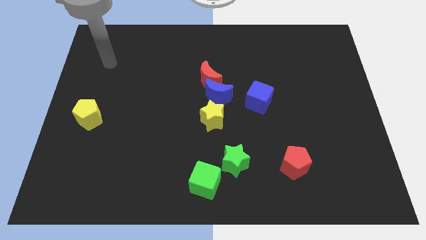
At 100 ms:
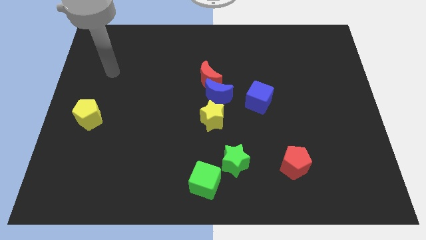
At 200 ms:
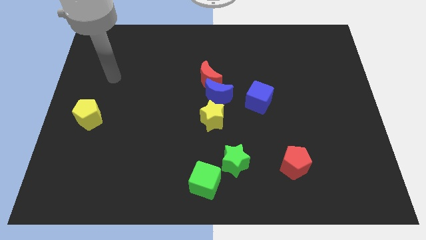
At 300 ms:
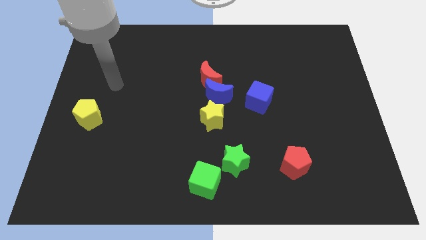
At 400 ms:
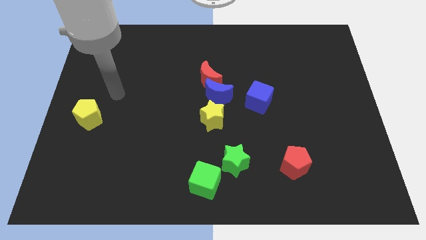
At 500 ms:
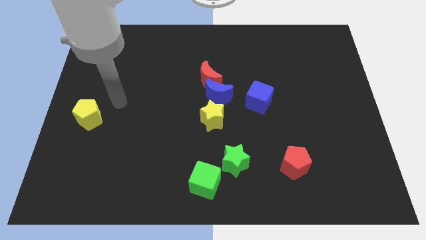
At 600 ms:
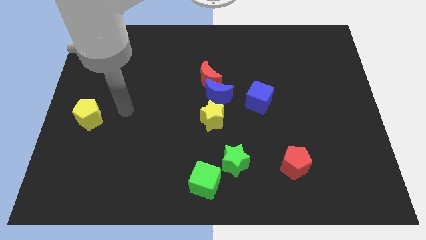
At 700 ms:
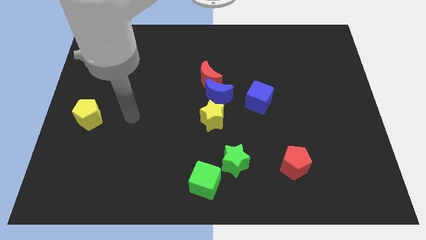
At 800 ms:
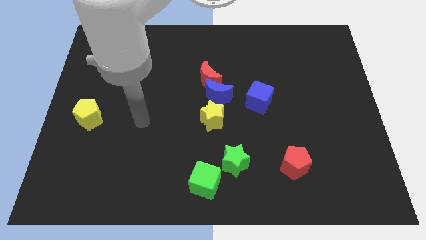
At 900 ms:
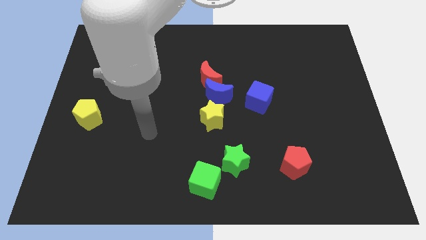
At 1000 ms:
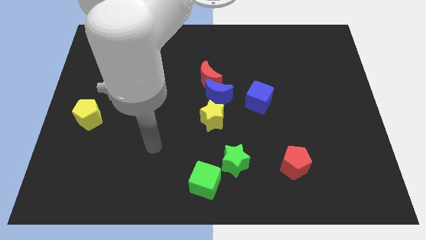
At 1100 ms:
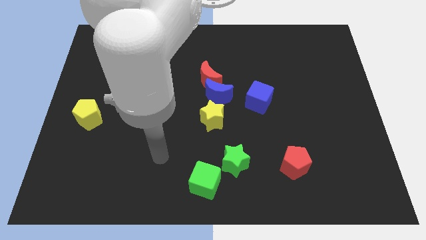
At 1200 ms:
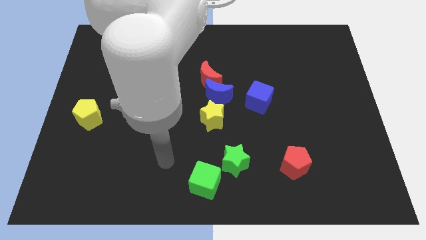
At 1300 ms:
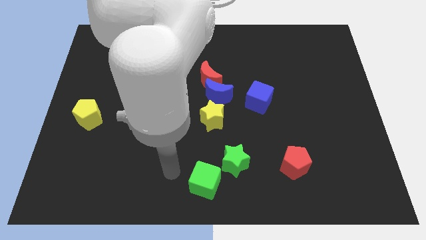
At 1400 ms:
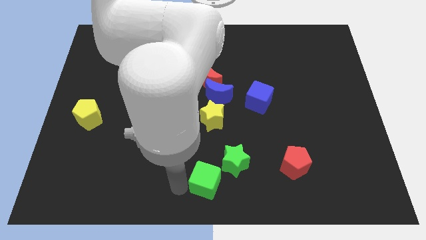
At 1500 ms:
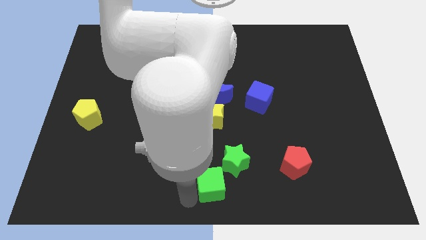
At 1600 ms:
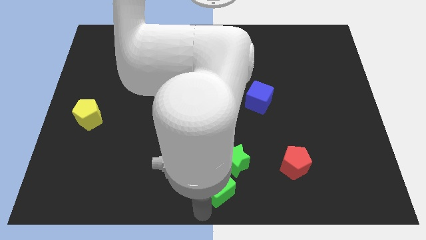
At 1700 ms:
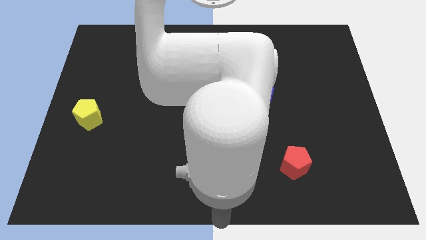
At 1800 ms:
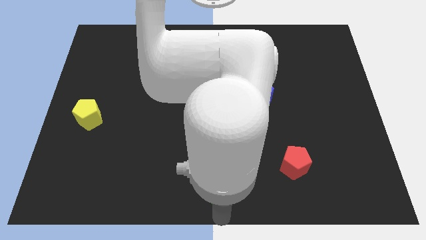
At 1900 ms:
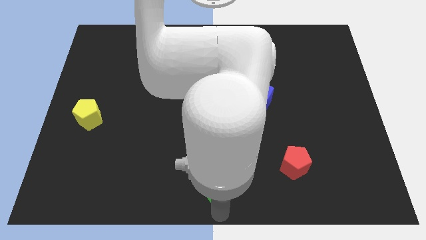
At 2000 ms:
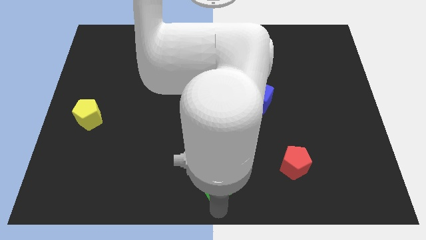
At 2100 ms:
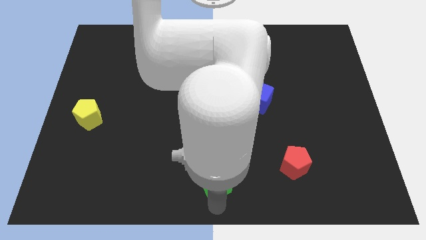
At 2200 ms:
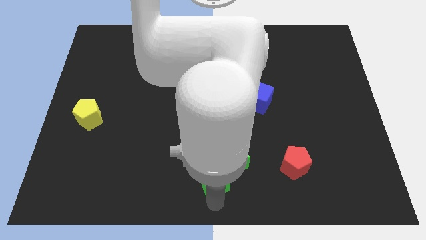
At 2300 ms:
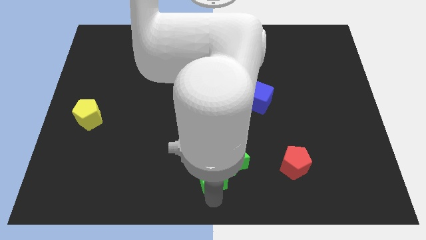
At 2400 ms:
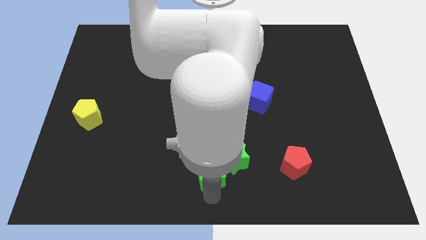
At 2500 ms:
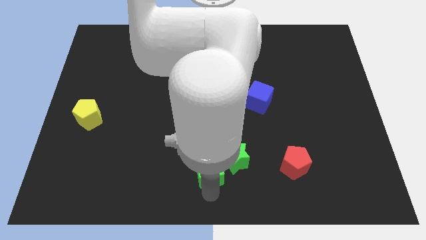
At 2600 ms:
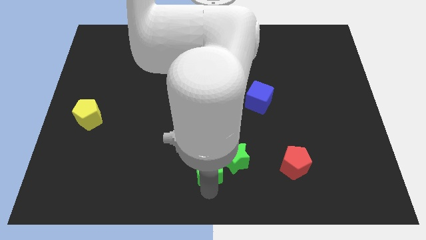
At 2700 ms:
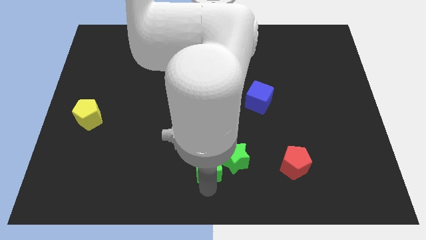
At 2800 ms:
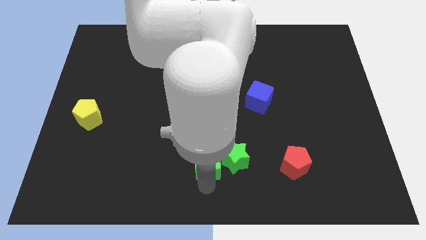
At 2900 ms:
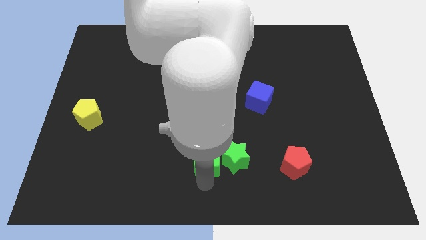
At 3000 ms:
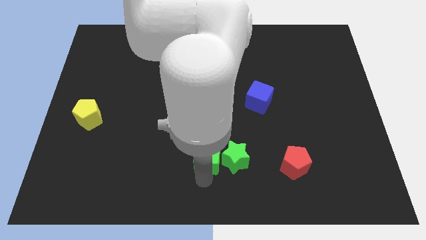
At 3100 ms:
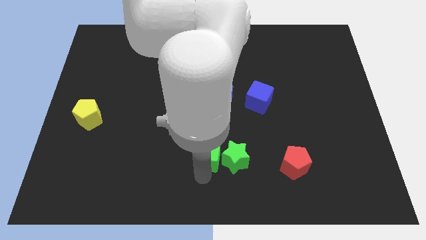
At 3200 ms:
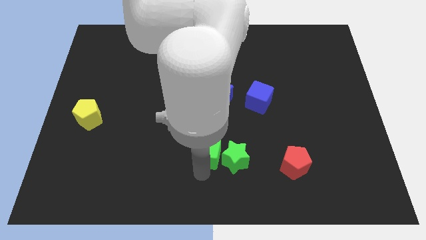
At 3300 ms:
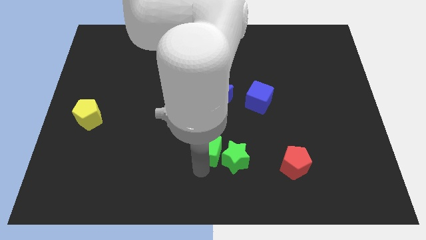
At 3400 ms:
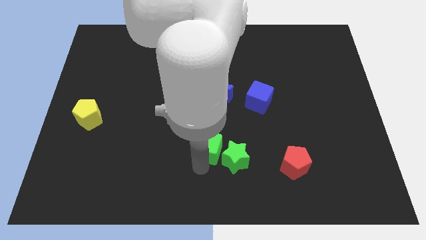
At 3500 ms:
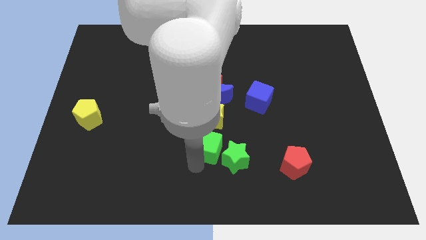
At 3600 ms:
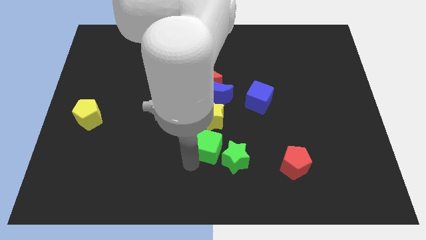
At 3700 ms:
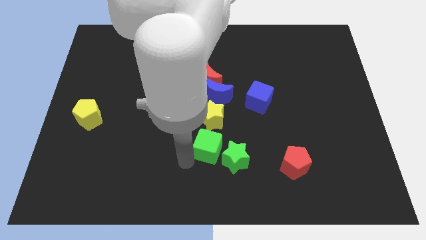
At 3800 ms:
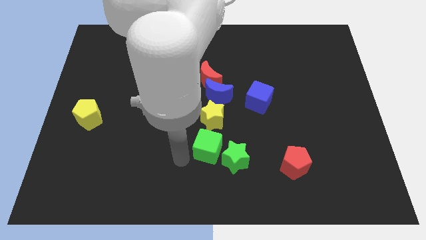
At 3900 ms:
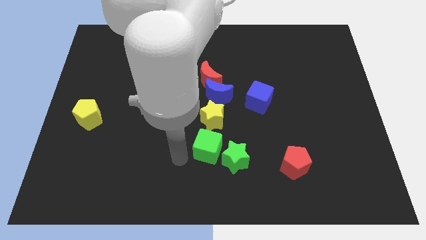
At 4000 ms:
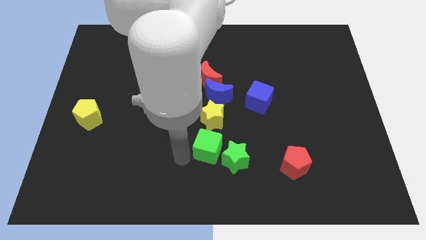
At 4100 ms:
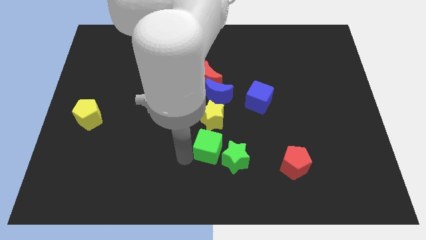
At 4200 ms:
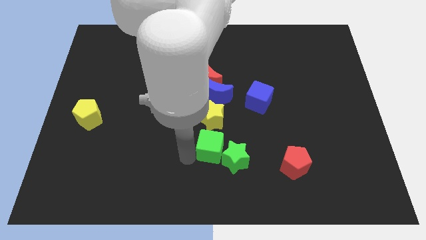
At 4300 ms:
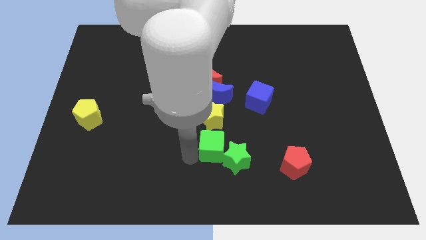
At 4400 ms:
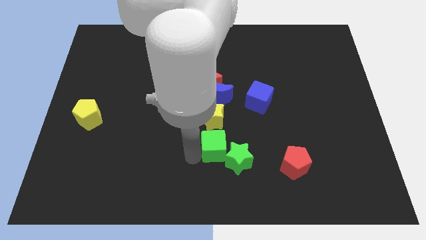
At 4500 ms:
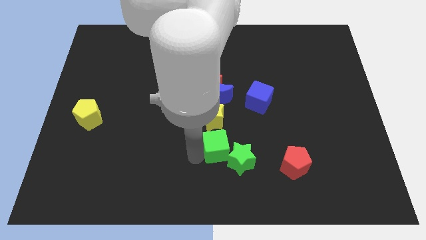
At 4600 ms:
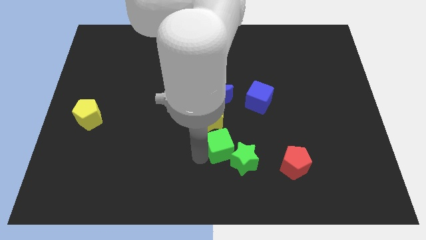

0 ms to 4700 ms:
push the green cube up and right diagonally a bit

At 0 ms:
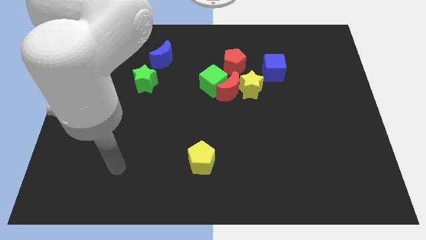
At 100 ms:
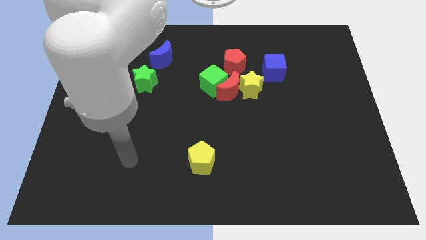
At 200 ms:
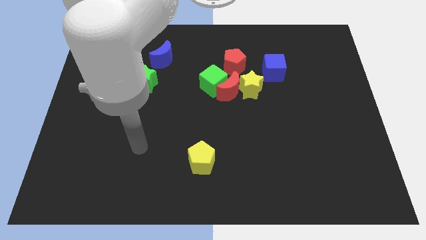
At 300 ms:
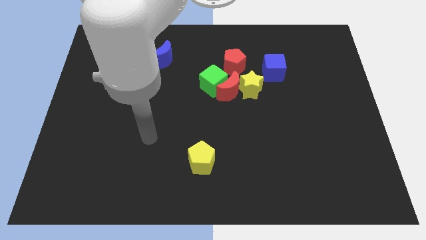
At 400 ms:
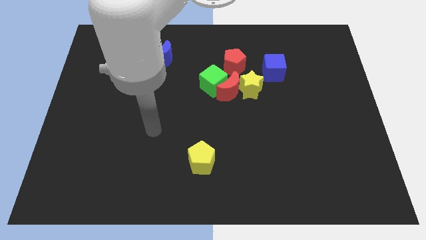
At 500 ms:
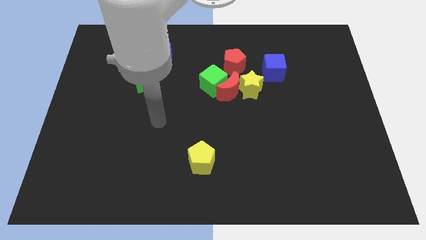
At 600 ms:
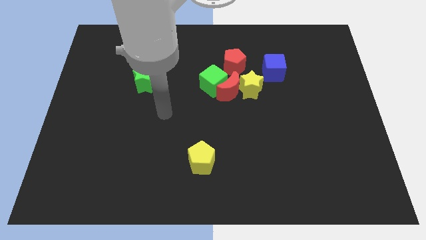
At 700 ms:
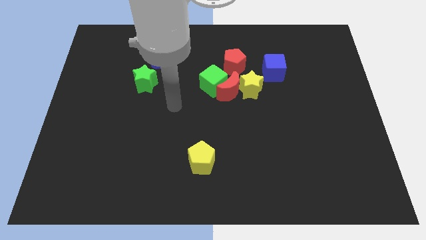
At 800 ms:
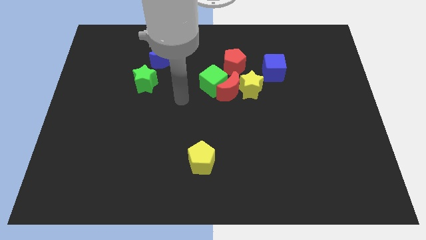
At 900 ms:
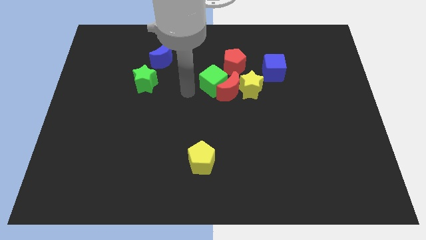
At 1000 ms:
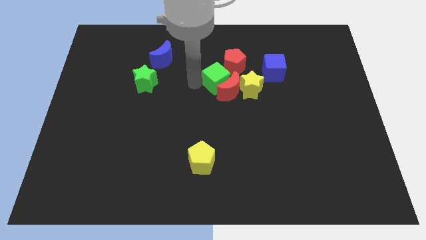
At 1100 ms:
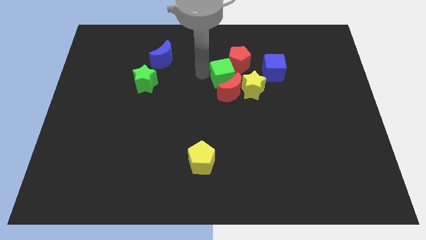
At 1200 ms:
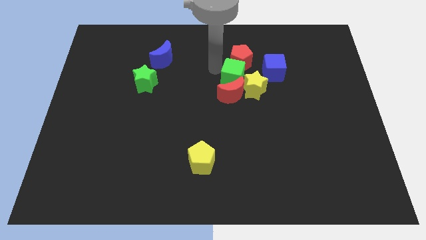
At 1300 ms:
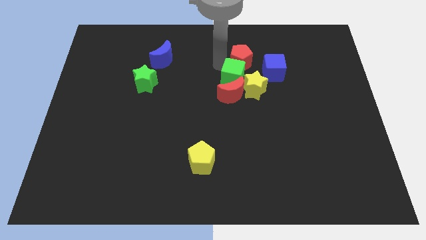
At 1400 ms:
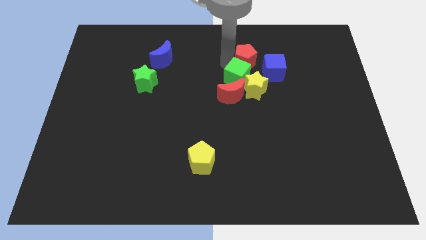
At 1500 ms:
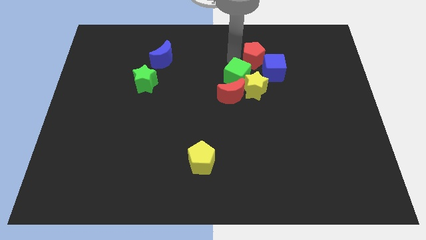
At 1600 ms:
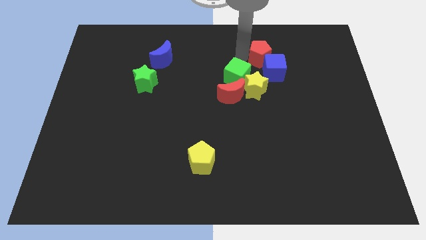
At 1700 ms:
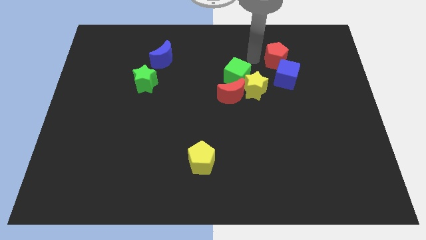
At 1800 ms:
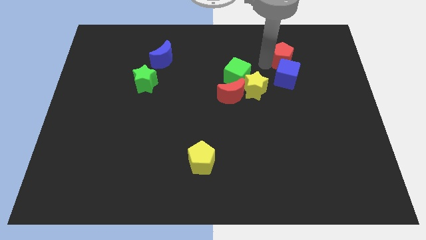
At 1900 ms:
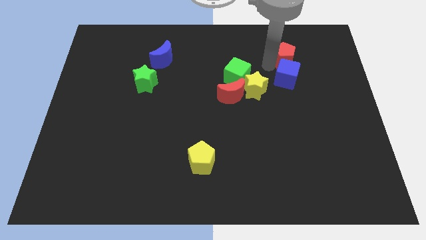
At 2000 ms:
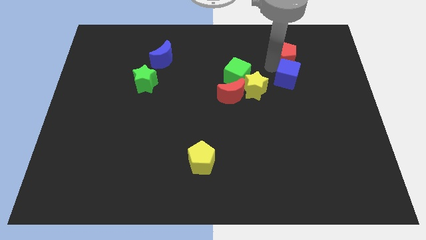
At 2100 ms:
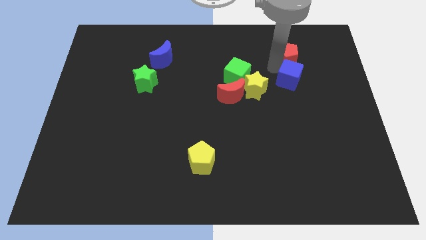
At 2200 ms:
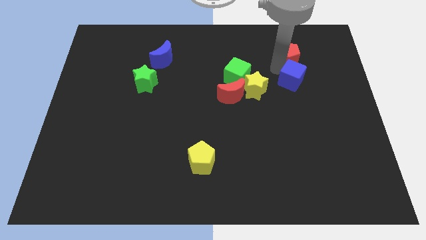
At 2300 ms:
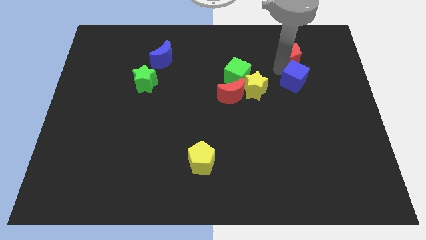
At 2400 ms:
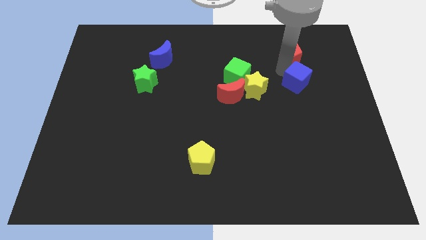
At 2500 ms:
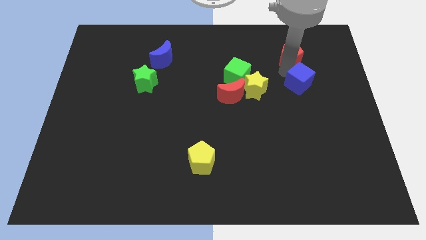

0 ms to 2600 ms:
move the blue cube slightly downwards and then right

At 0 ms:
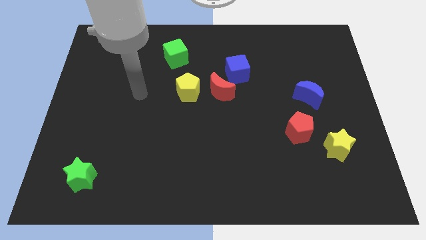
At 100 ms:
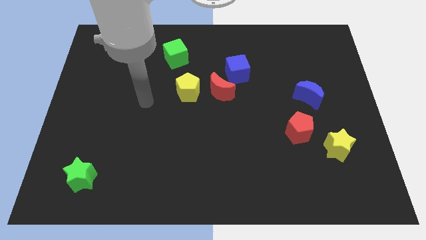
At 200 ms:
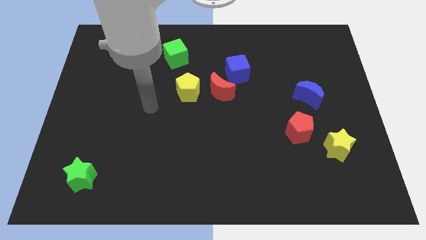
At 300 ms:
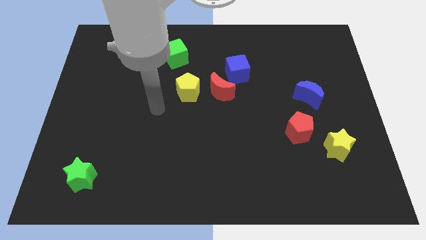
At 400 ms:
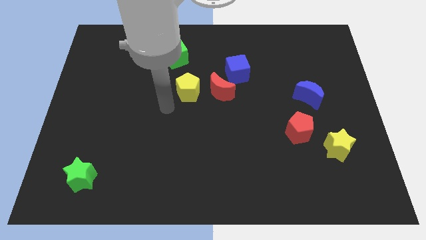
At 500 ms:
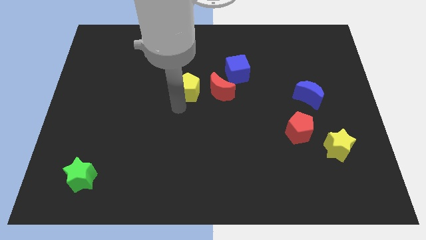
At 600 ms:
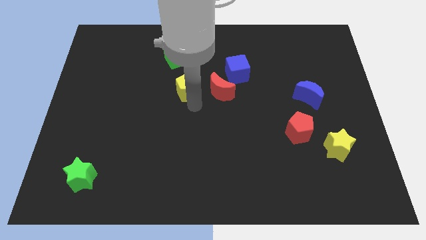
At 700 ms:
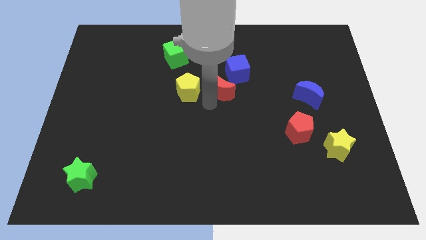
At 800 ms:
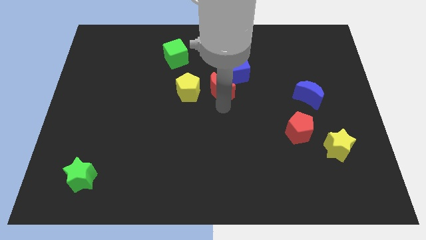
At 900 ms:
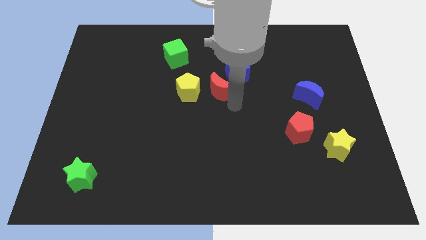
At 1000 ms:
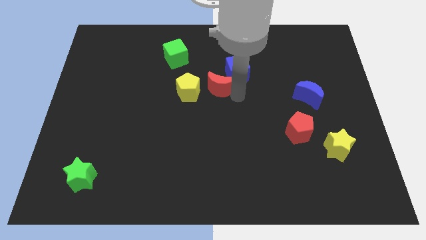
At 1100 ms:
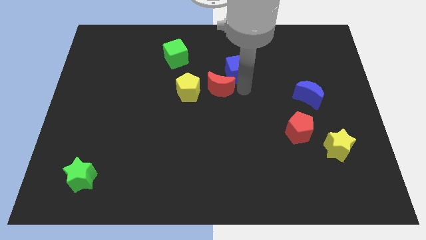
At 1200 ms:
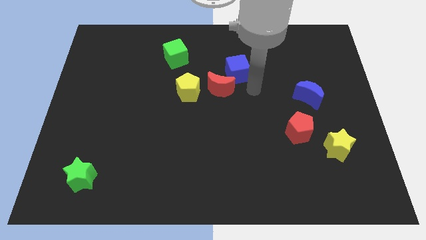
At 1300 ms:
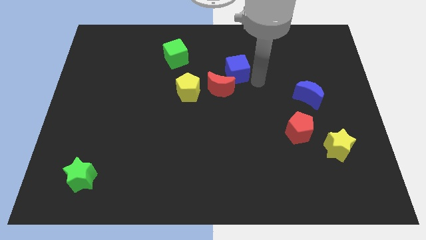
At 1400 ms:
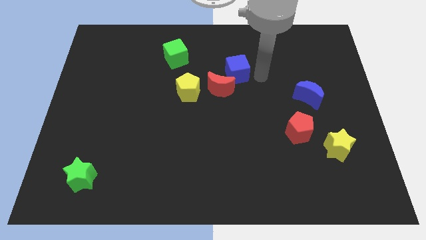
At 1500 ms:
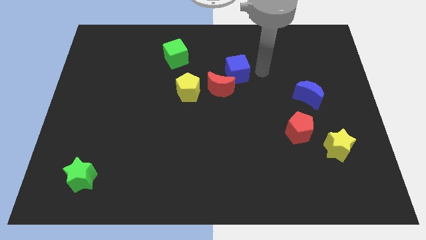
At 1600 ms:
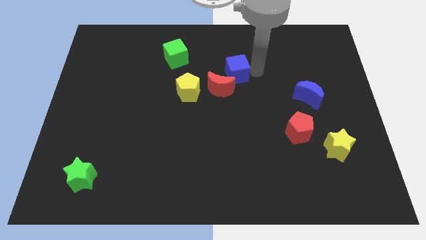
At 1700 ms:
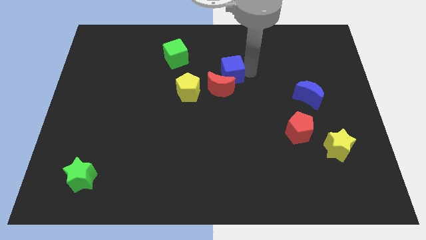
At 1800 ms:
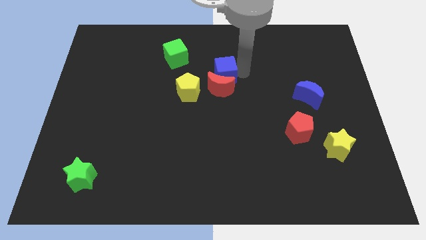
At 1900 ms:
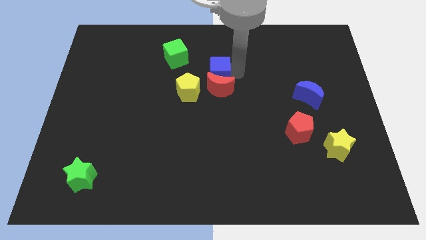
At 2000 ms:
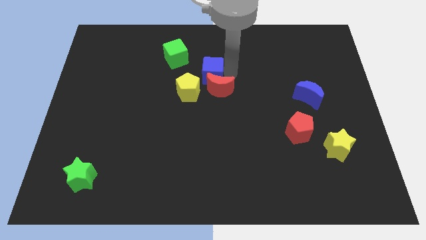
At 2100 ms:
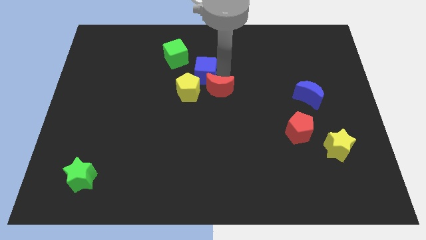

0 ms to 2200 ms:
push the blue cube to the left a little
